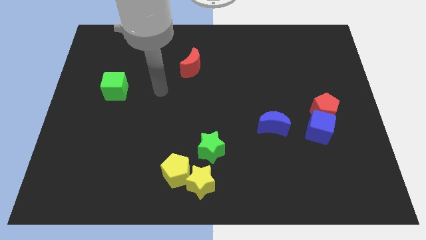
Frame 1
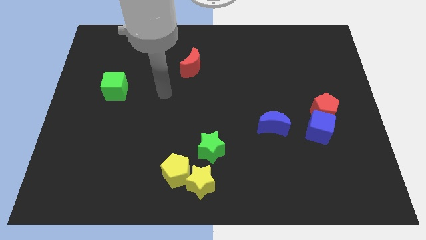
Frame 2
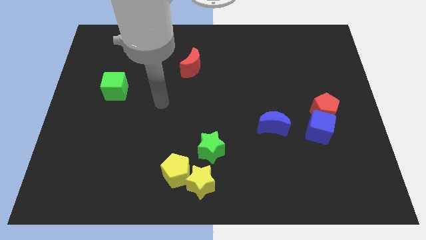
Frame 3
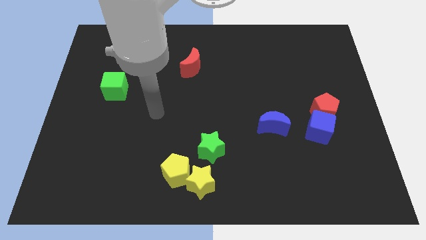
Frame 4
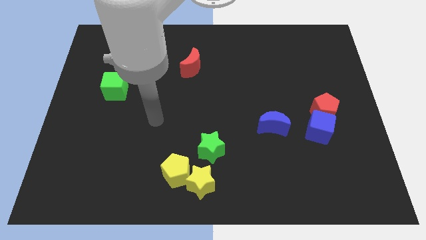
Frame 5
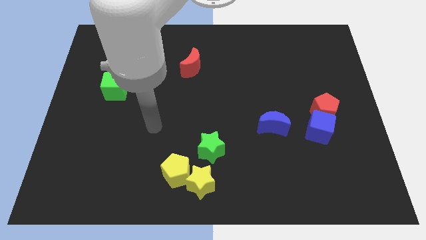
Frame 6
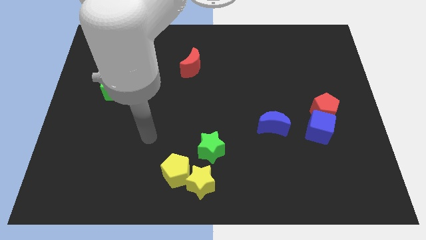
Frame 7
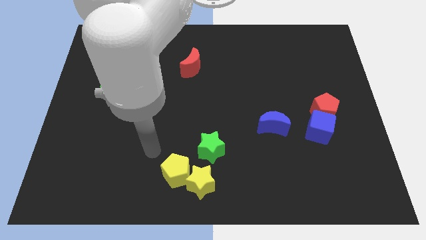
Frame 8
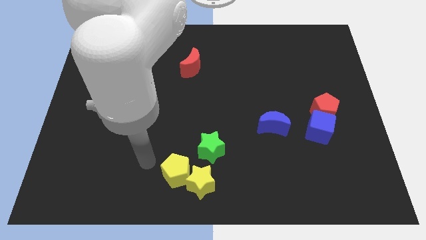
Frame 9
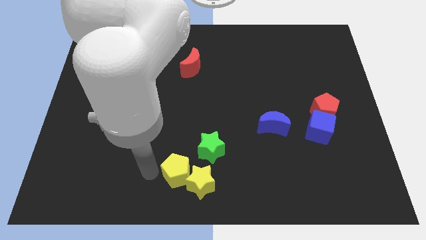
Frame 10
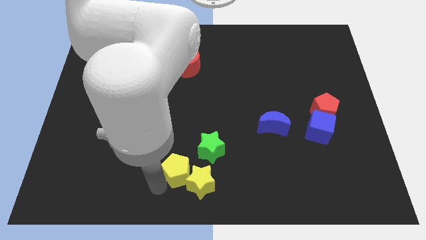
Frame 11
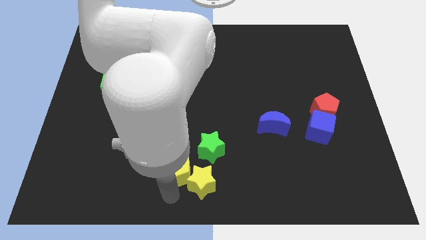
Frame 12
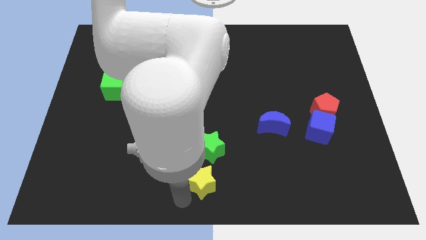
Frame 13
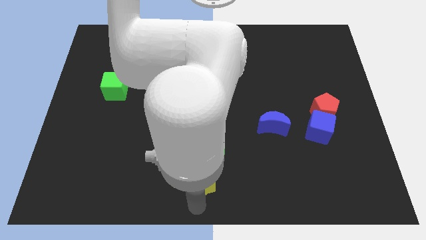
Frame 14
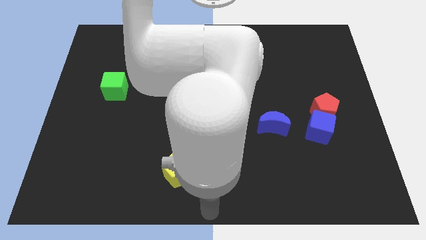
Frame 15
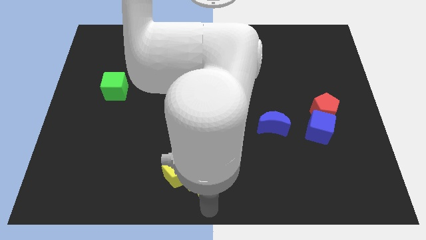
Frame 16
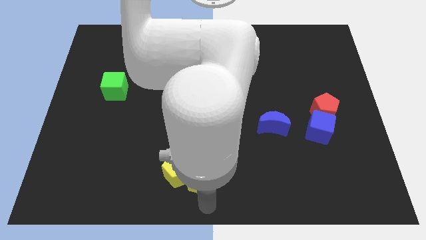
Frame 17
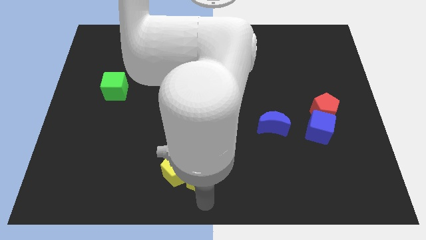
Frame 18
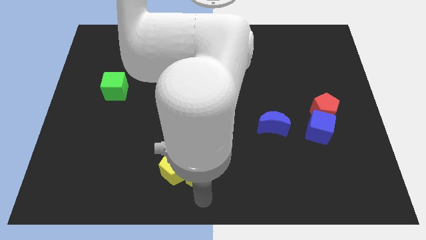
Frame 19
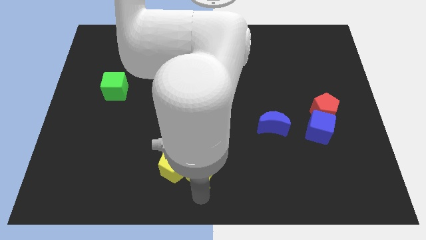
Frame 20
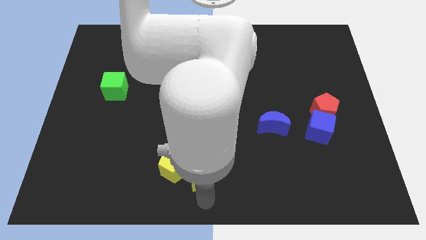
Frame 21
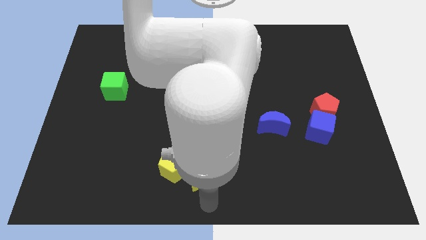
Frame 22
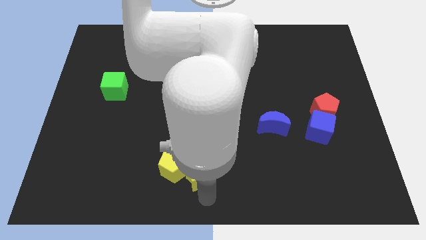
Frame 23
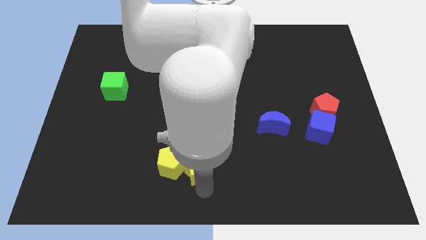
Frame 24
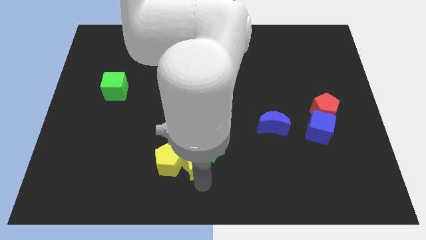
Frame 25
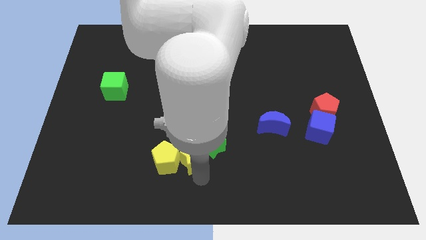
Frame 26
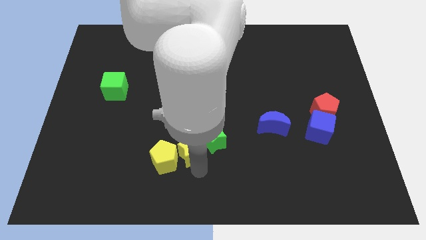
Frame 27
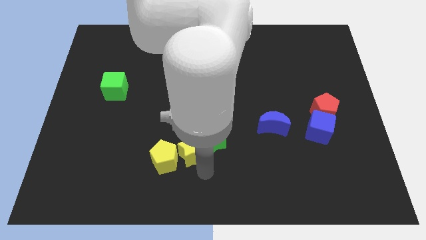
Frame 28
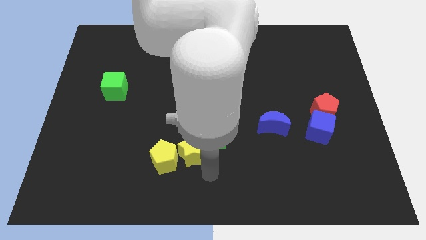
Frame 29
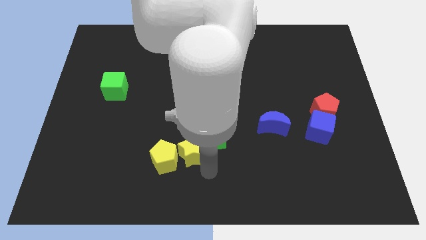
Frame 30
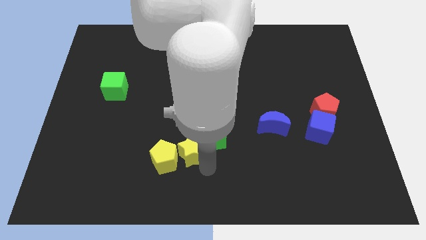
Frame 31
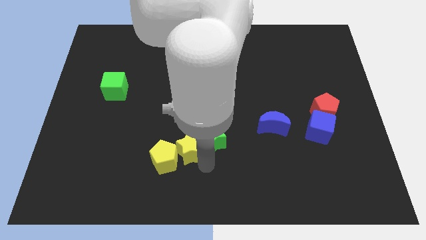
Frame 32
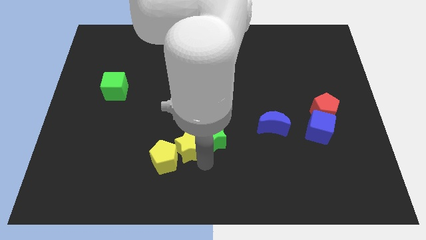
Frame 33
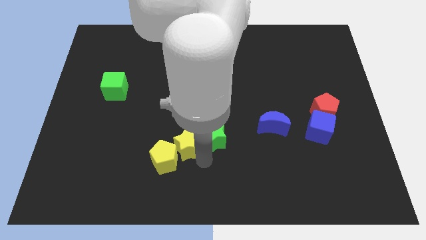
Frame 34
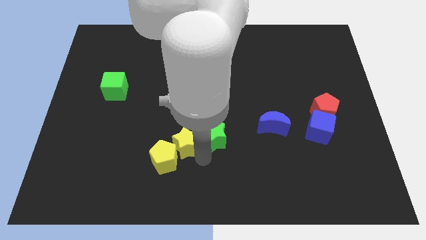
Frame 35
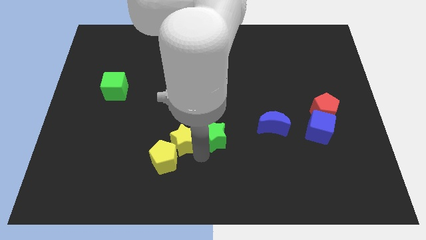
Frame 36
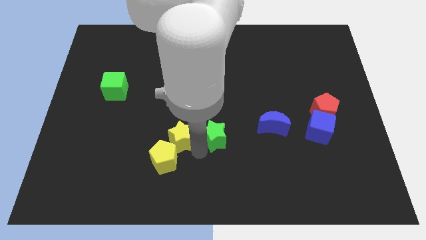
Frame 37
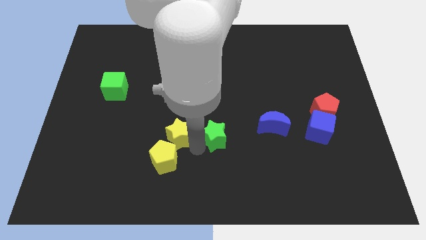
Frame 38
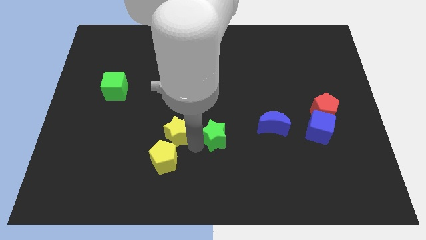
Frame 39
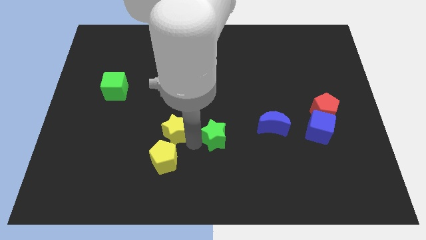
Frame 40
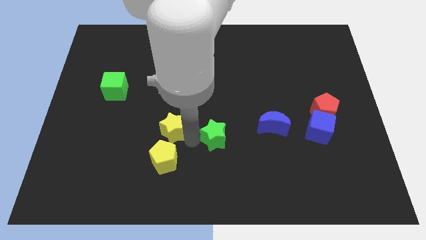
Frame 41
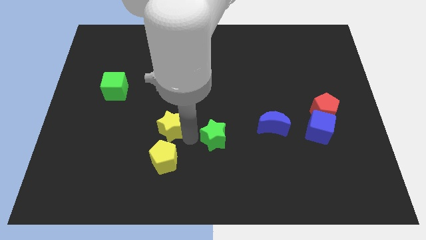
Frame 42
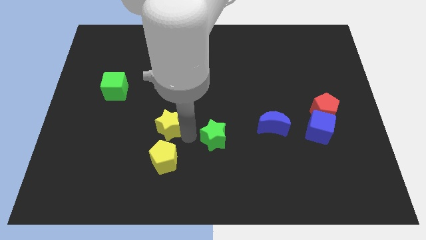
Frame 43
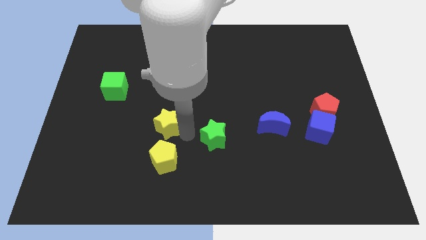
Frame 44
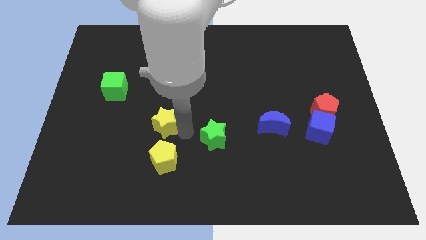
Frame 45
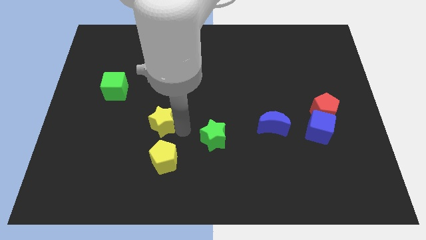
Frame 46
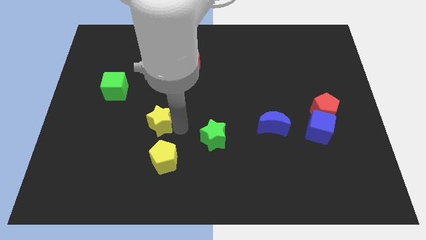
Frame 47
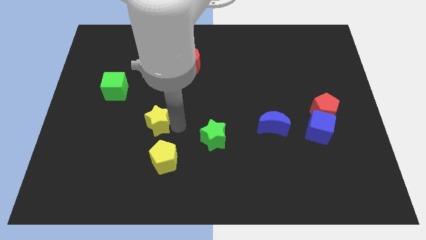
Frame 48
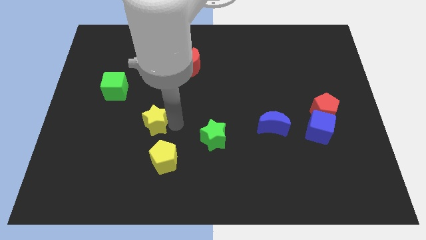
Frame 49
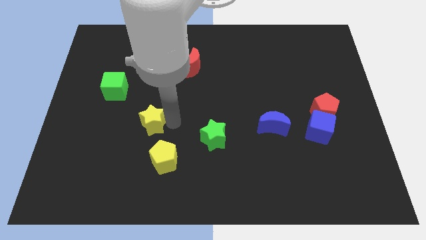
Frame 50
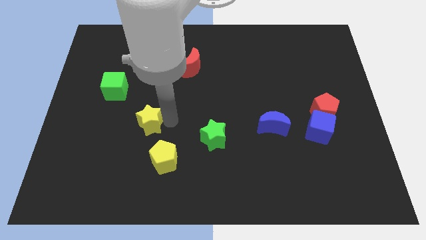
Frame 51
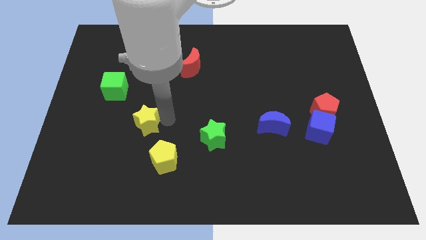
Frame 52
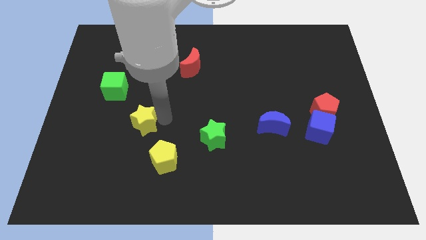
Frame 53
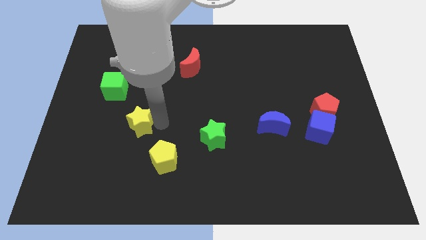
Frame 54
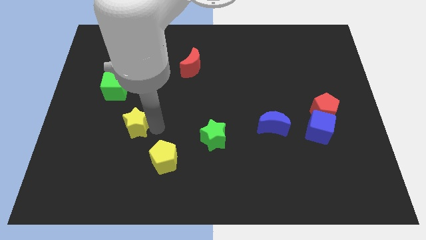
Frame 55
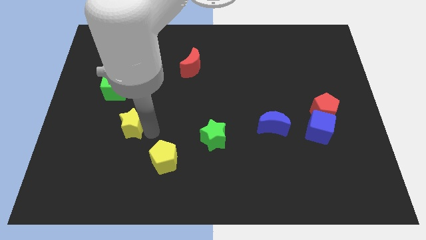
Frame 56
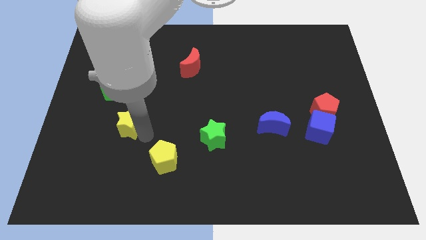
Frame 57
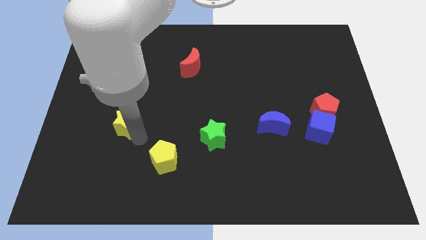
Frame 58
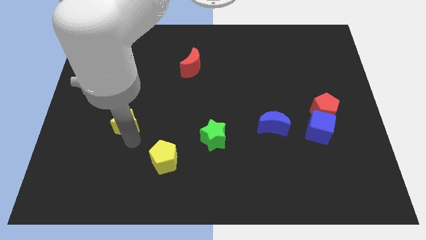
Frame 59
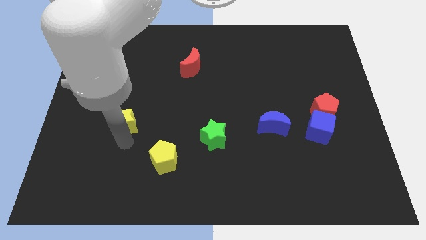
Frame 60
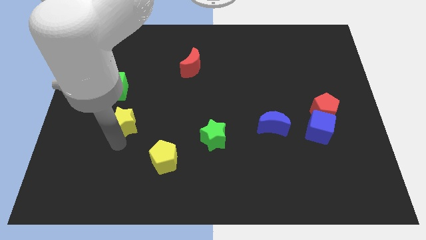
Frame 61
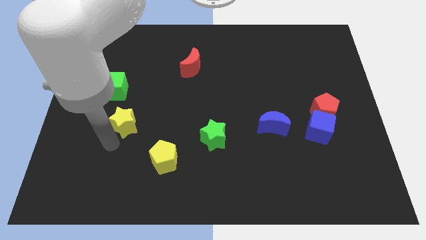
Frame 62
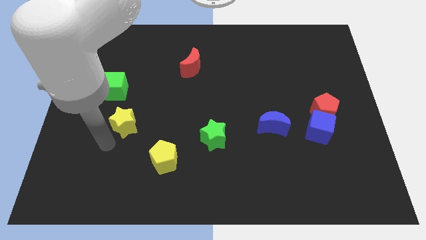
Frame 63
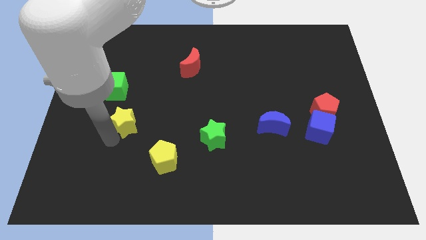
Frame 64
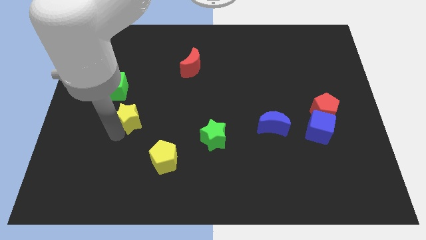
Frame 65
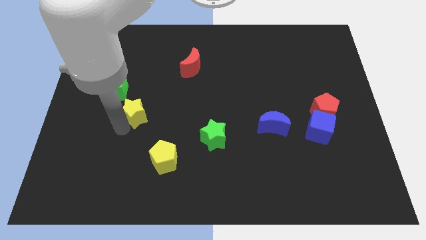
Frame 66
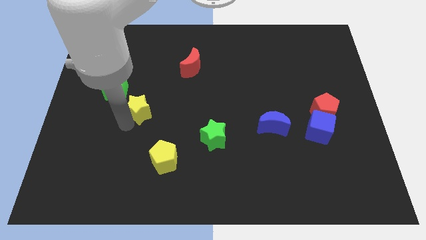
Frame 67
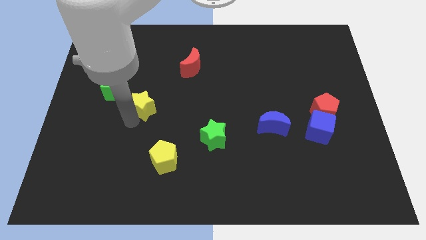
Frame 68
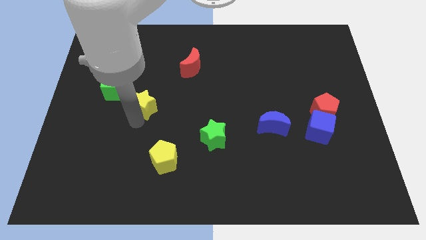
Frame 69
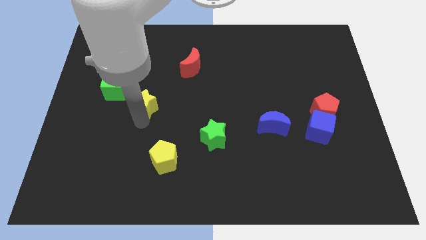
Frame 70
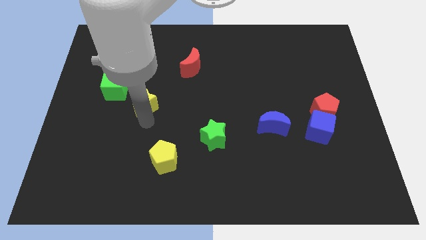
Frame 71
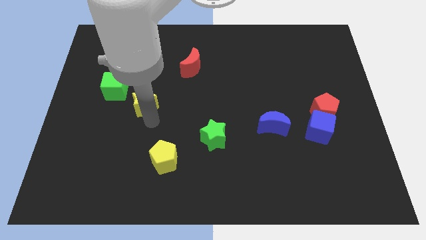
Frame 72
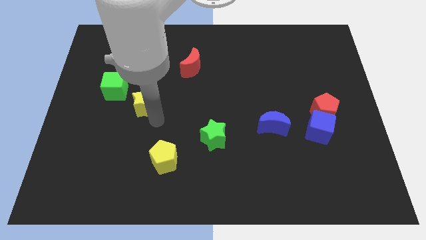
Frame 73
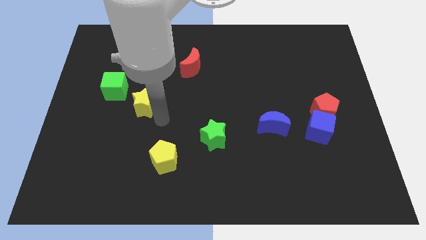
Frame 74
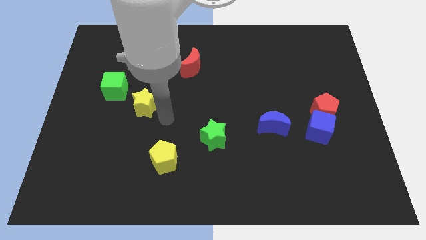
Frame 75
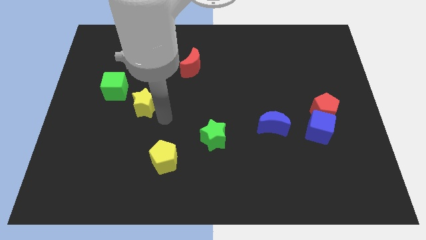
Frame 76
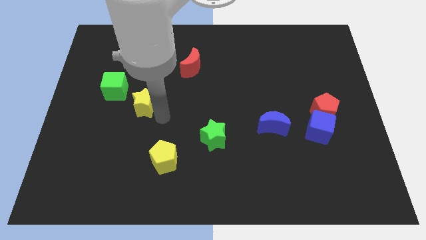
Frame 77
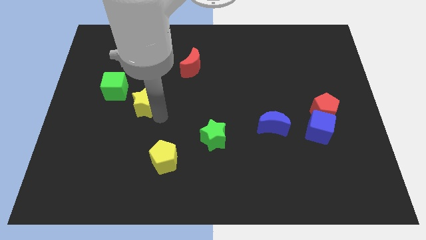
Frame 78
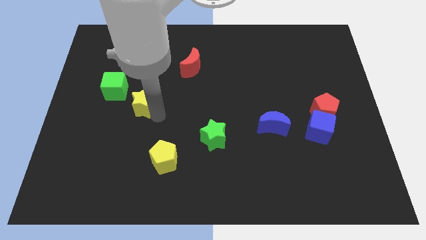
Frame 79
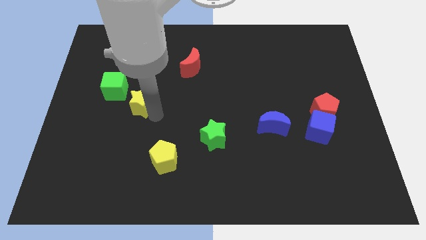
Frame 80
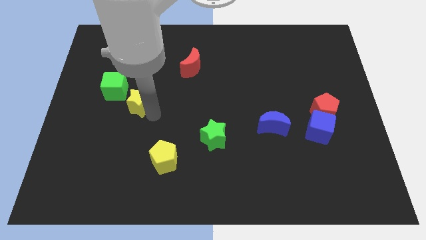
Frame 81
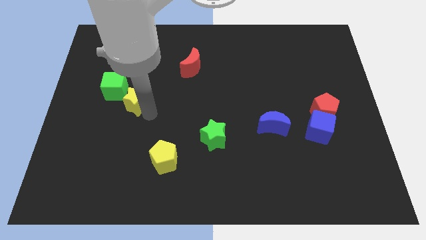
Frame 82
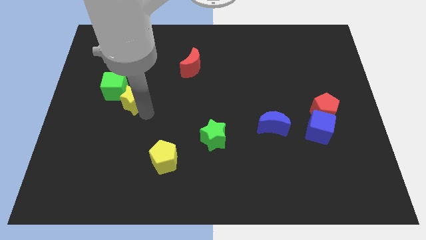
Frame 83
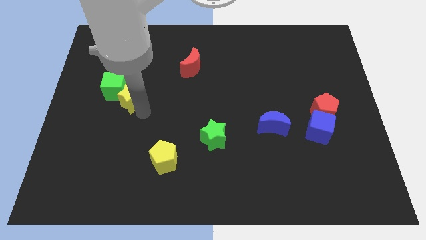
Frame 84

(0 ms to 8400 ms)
put the yellow star next to the green cube
